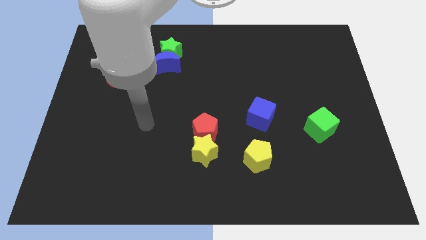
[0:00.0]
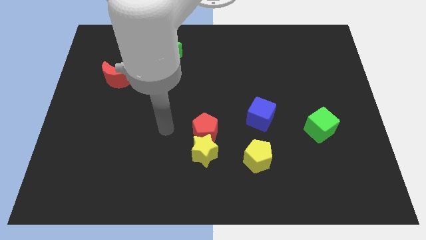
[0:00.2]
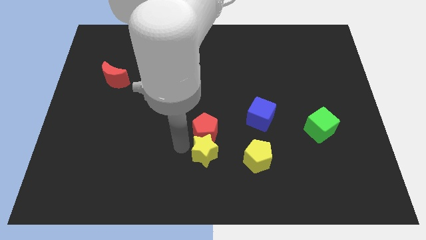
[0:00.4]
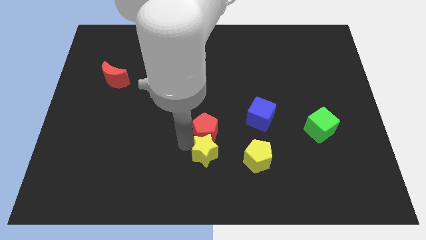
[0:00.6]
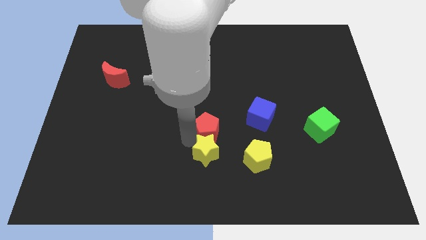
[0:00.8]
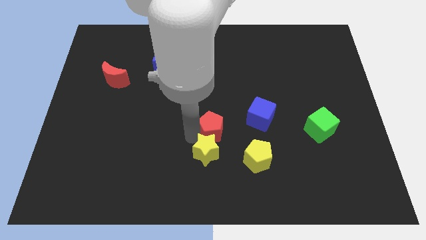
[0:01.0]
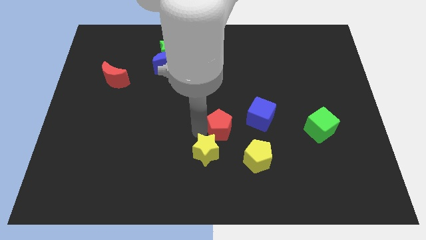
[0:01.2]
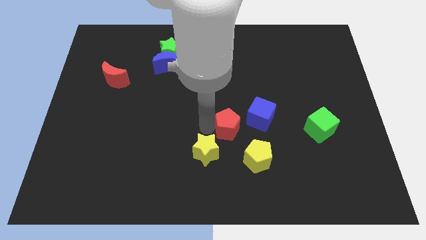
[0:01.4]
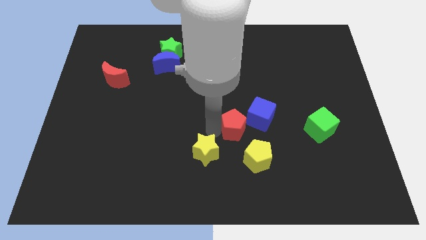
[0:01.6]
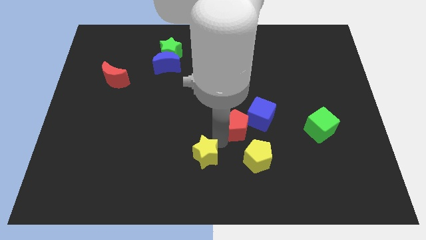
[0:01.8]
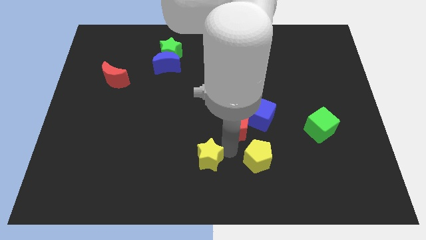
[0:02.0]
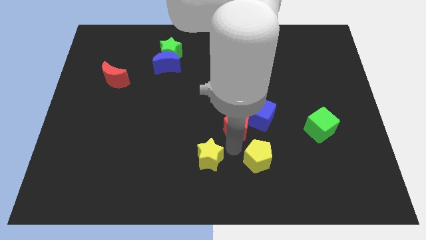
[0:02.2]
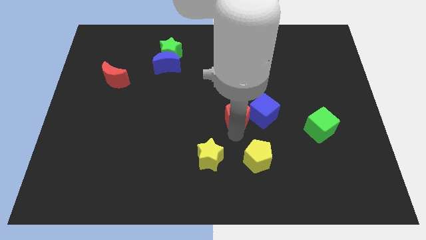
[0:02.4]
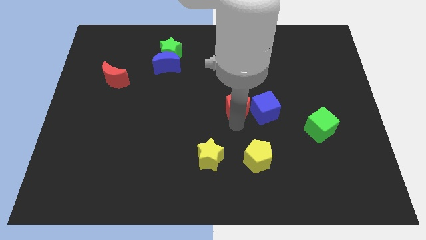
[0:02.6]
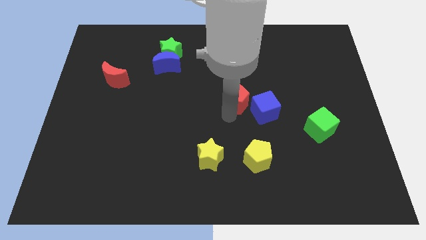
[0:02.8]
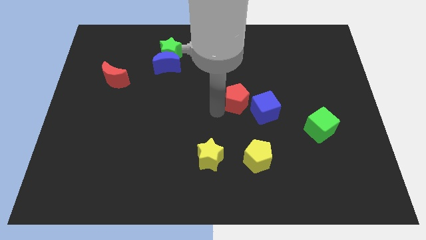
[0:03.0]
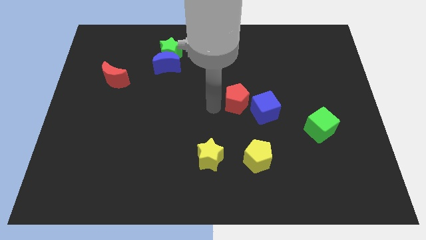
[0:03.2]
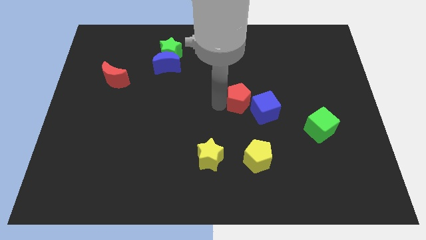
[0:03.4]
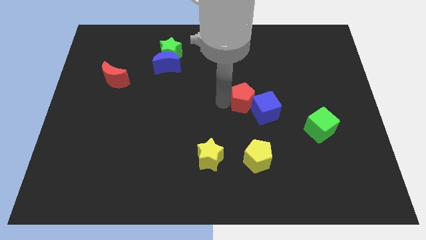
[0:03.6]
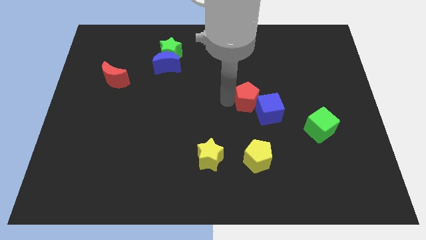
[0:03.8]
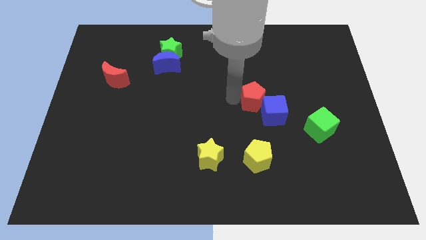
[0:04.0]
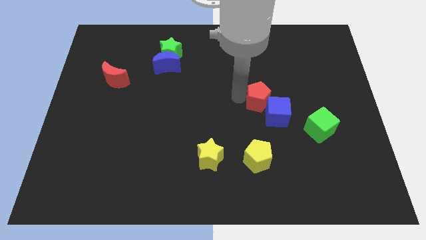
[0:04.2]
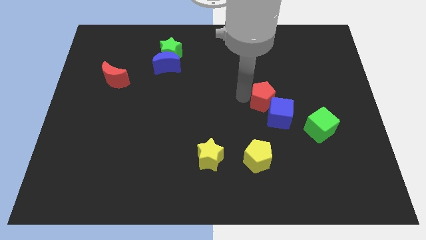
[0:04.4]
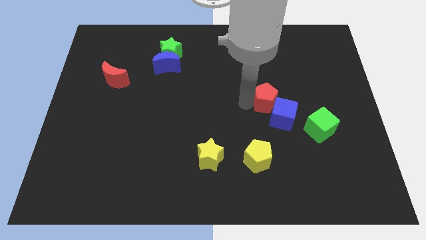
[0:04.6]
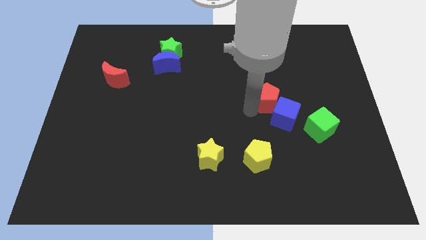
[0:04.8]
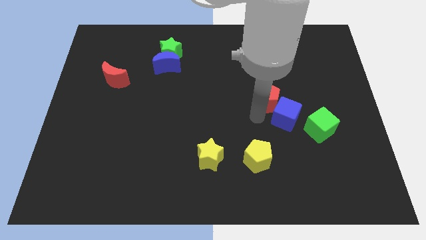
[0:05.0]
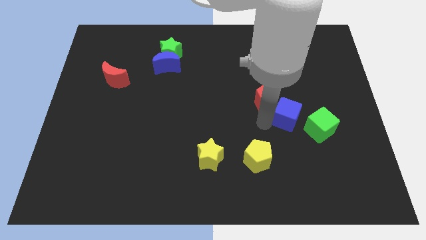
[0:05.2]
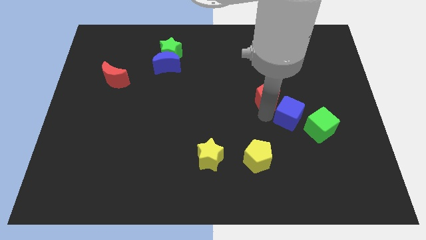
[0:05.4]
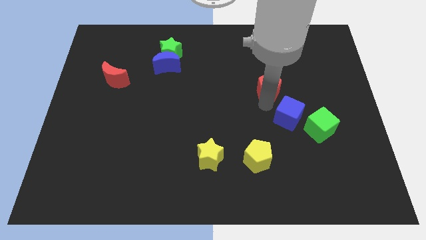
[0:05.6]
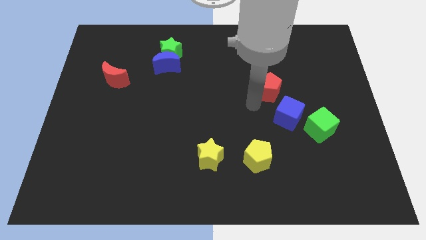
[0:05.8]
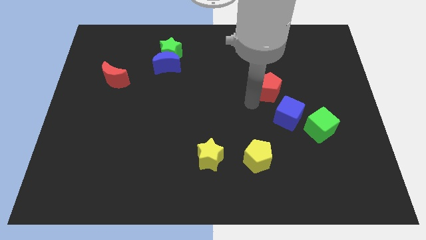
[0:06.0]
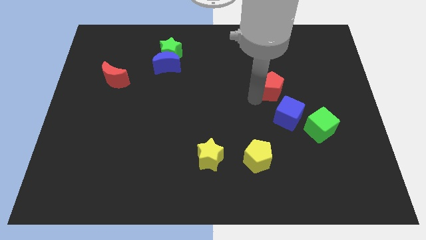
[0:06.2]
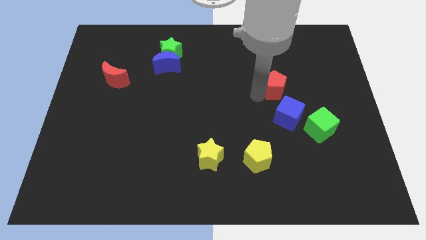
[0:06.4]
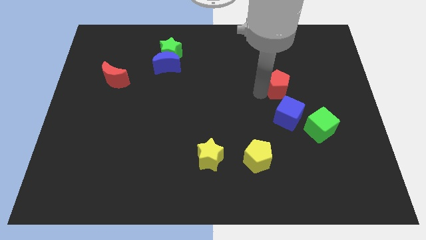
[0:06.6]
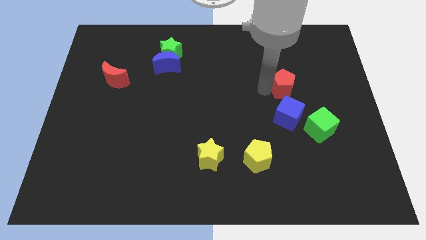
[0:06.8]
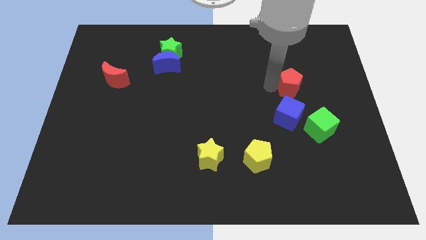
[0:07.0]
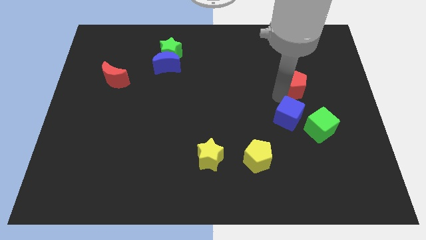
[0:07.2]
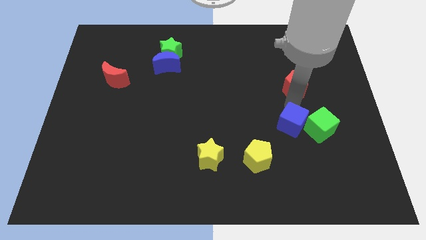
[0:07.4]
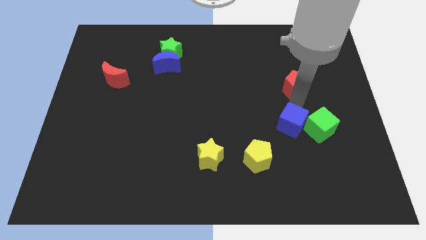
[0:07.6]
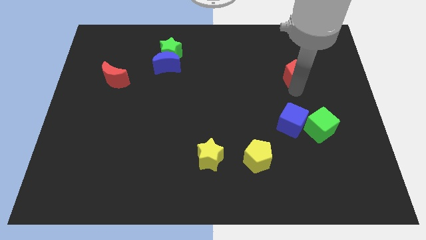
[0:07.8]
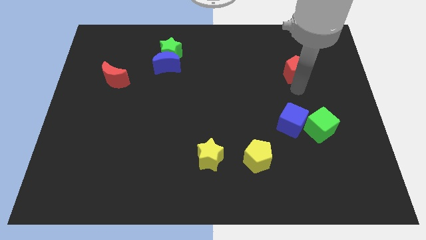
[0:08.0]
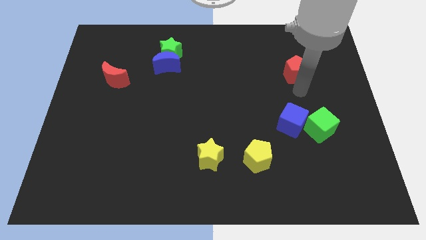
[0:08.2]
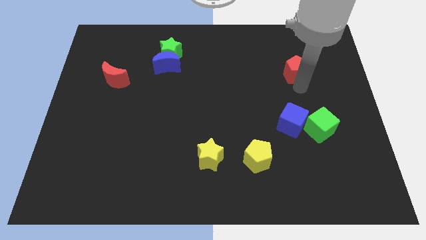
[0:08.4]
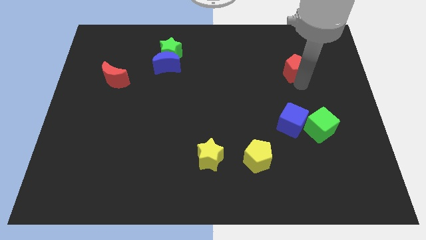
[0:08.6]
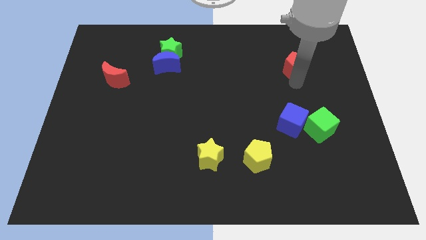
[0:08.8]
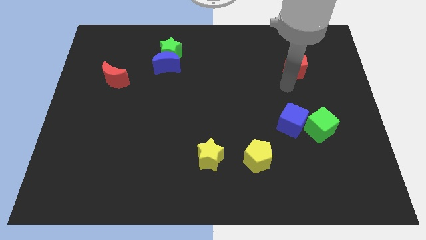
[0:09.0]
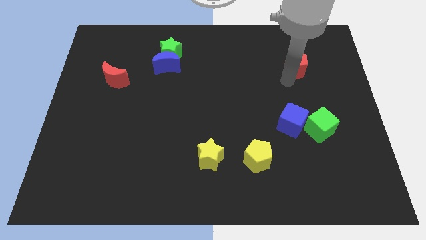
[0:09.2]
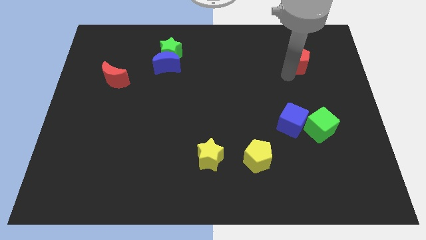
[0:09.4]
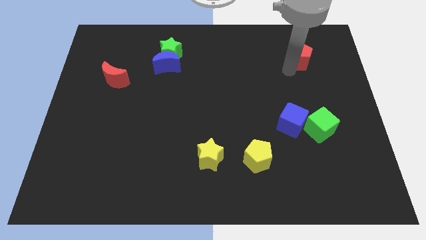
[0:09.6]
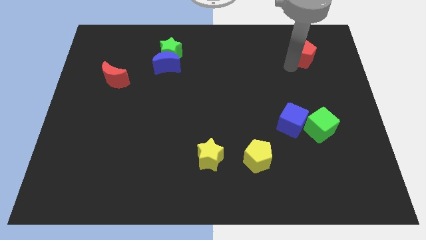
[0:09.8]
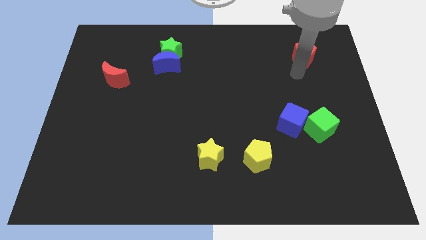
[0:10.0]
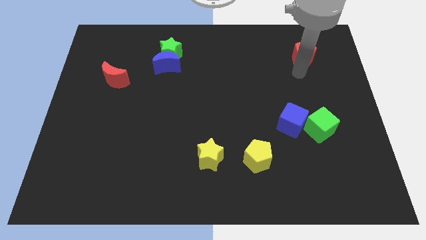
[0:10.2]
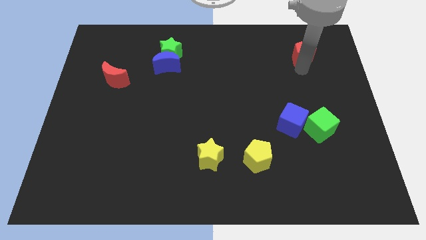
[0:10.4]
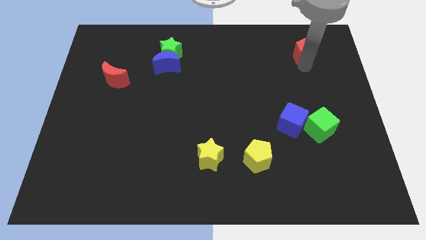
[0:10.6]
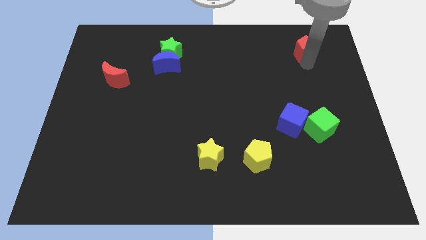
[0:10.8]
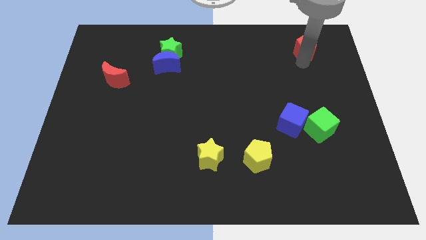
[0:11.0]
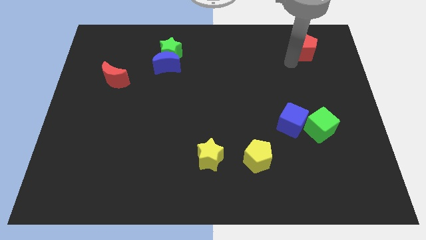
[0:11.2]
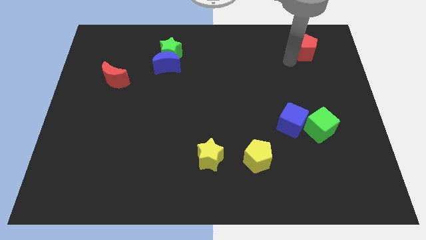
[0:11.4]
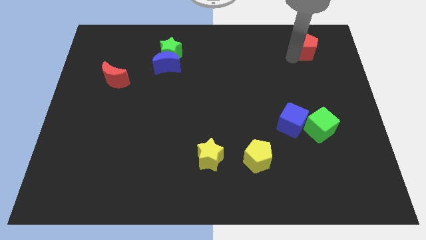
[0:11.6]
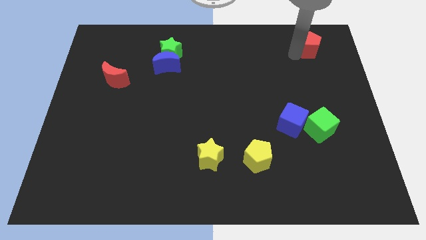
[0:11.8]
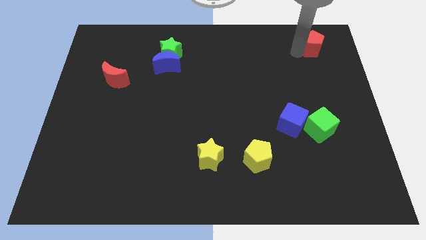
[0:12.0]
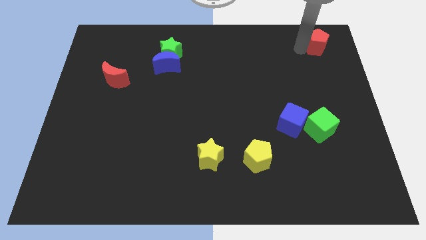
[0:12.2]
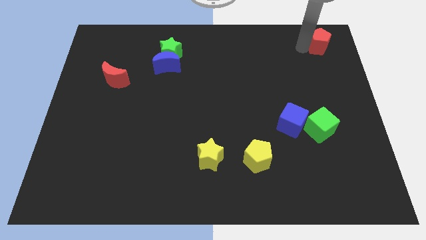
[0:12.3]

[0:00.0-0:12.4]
push the red pentagon to the top right of the board
